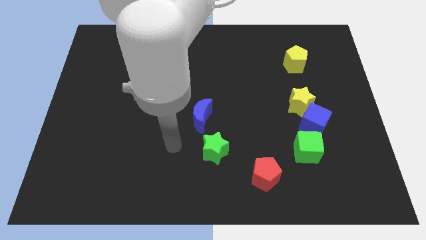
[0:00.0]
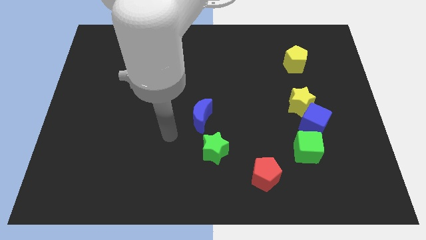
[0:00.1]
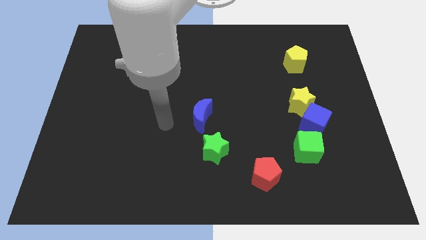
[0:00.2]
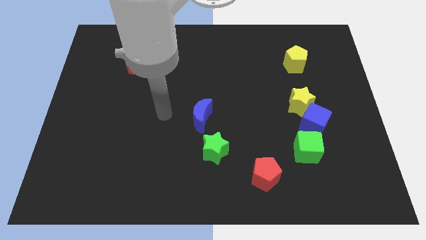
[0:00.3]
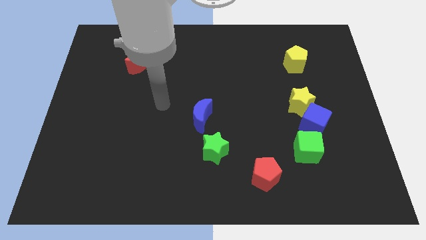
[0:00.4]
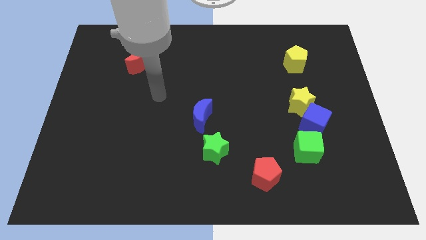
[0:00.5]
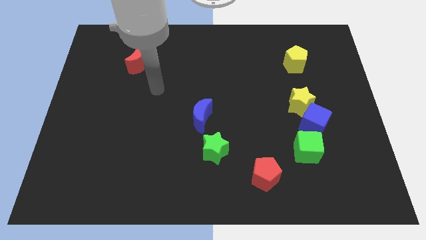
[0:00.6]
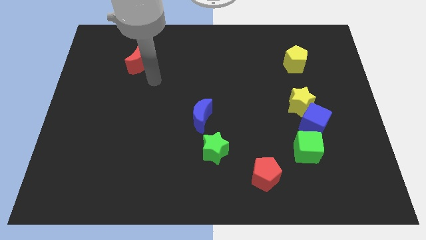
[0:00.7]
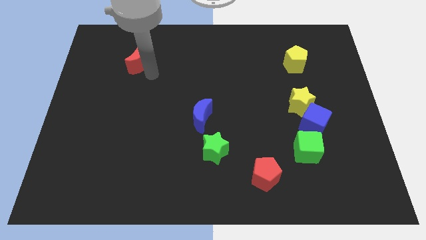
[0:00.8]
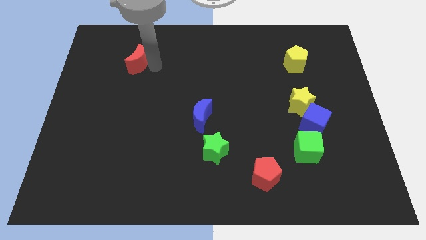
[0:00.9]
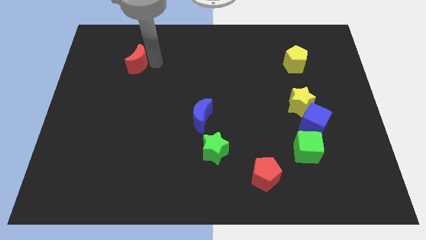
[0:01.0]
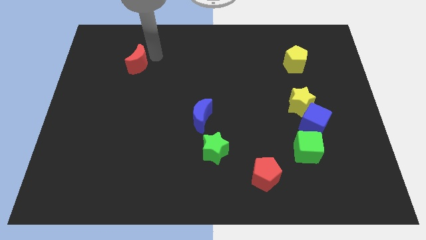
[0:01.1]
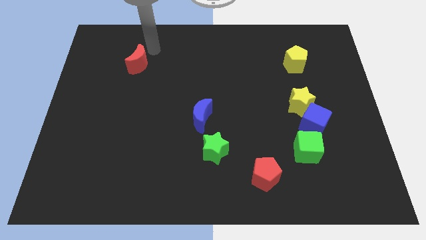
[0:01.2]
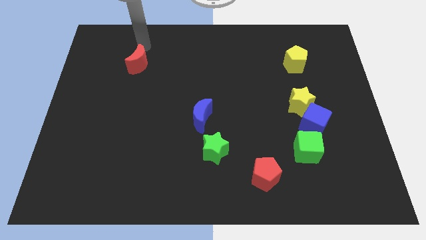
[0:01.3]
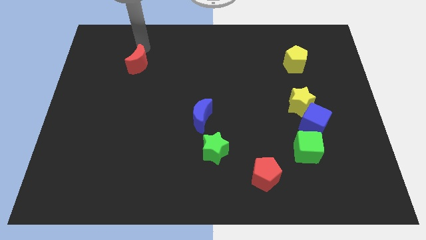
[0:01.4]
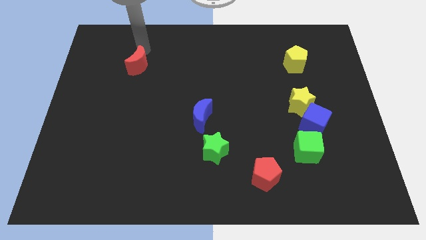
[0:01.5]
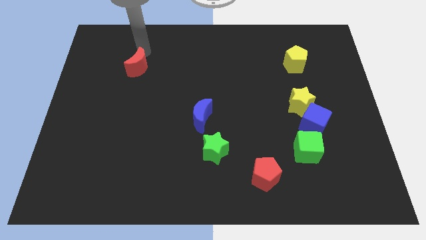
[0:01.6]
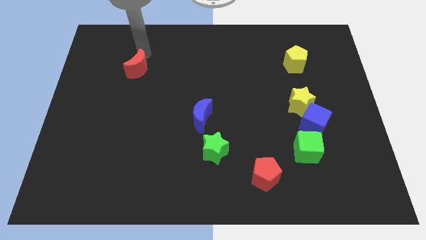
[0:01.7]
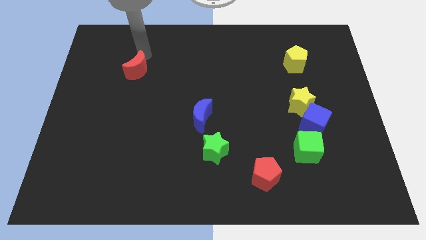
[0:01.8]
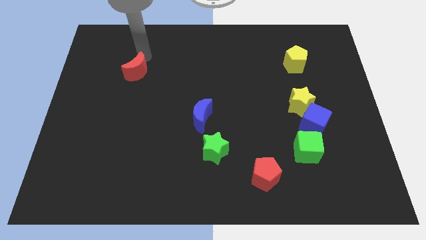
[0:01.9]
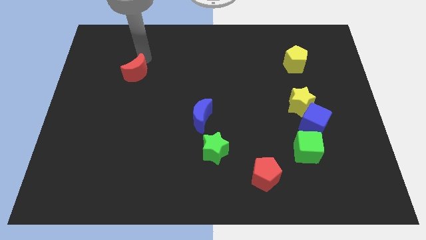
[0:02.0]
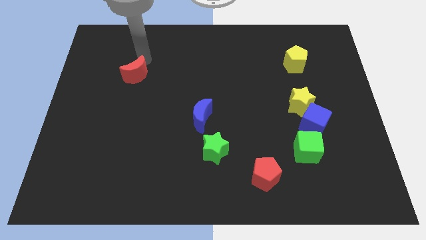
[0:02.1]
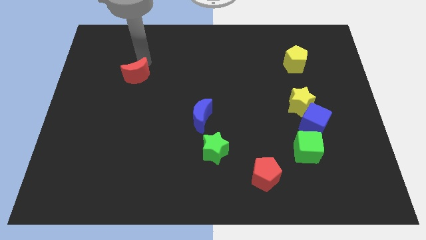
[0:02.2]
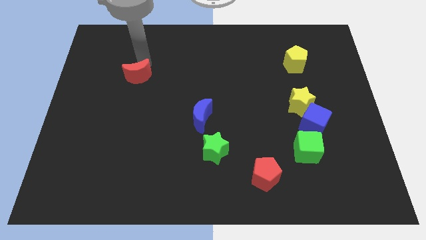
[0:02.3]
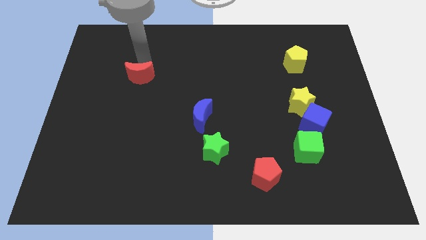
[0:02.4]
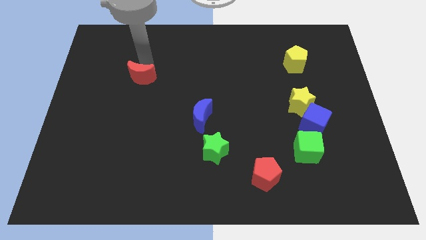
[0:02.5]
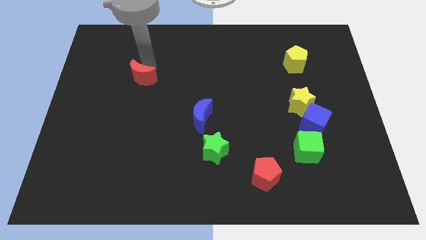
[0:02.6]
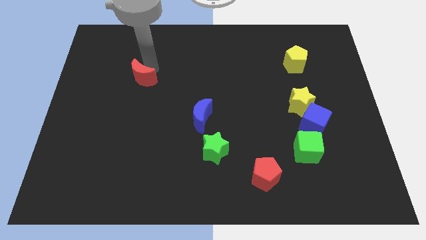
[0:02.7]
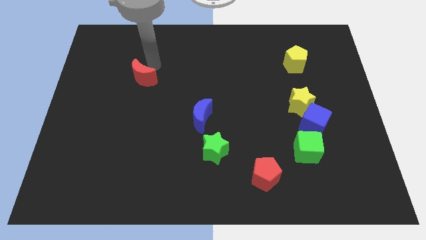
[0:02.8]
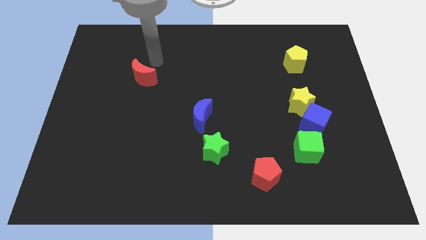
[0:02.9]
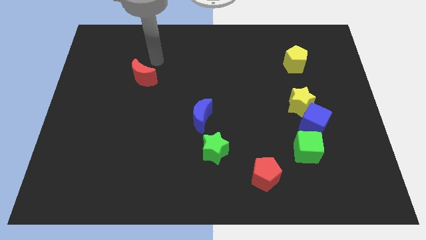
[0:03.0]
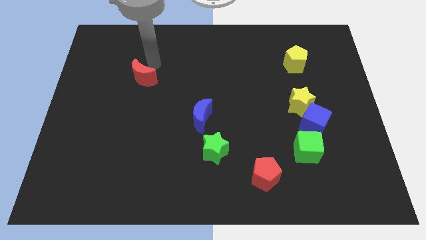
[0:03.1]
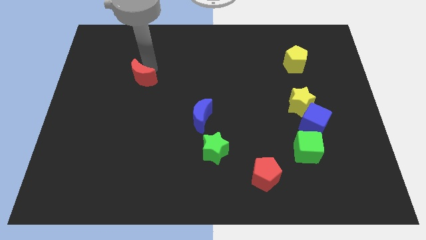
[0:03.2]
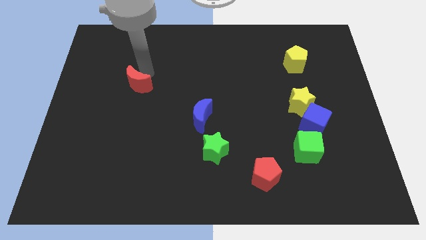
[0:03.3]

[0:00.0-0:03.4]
push the red moon a little bit downwards

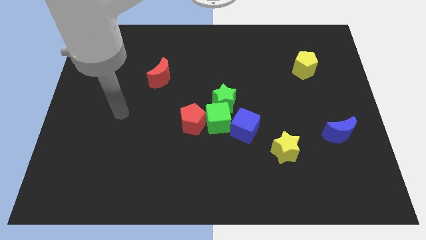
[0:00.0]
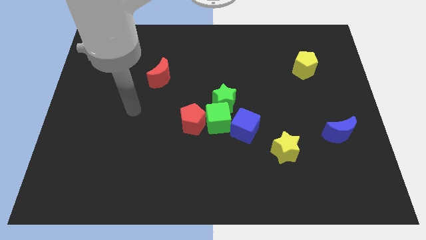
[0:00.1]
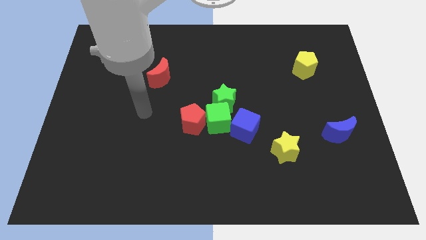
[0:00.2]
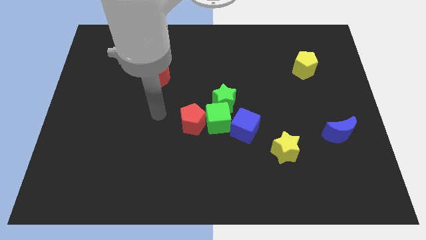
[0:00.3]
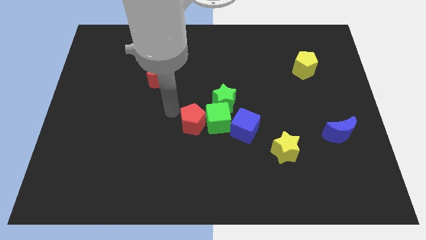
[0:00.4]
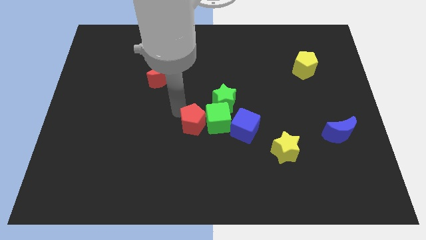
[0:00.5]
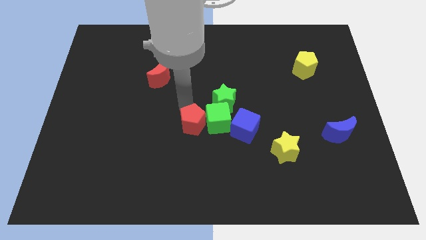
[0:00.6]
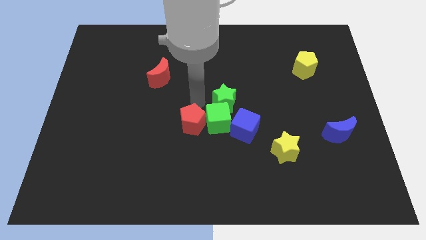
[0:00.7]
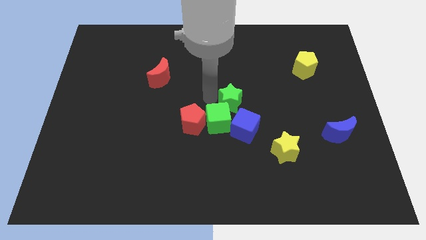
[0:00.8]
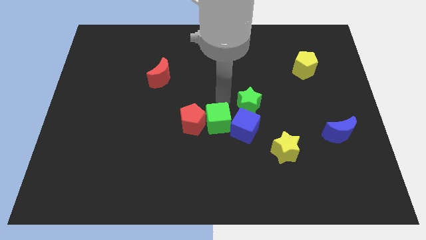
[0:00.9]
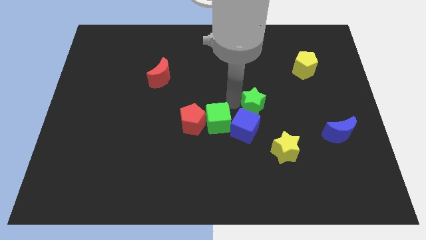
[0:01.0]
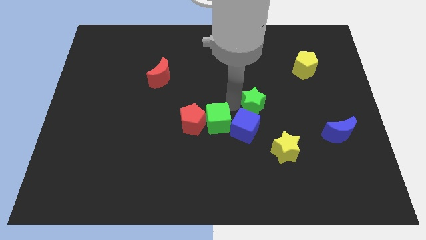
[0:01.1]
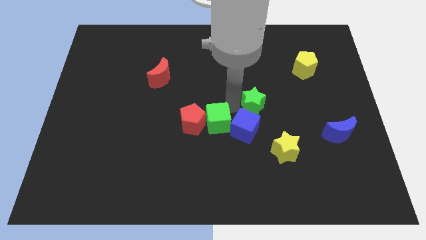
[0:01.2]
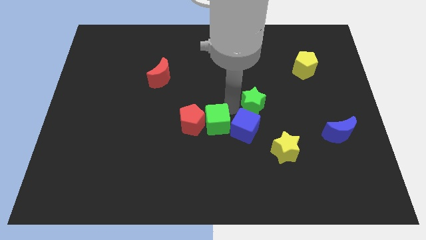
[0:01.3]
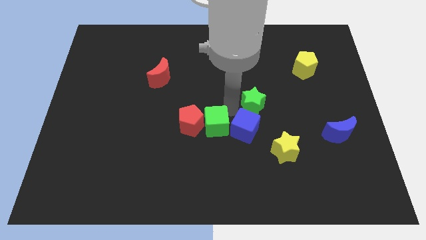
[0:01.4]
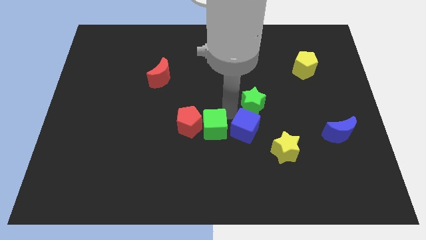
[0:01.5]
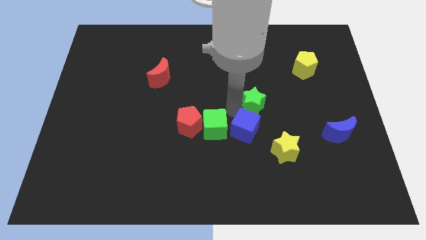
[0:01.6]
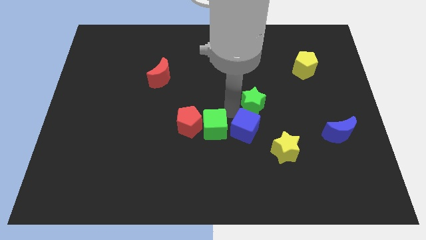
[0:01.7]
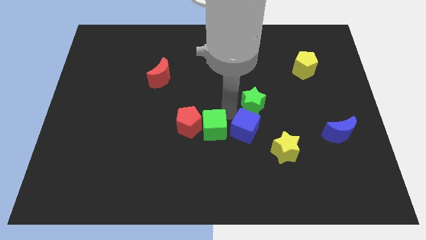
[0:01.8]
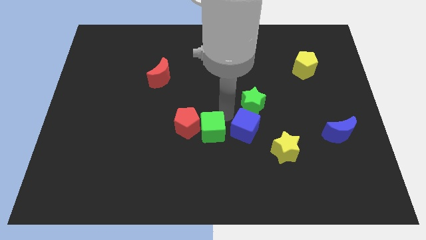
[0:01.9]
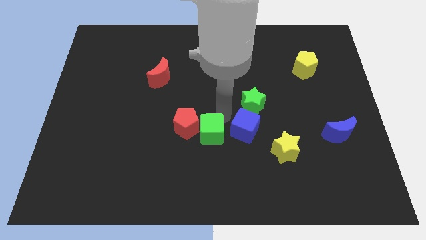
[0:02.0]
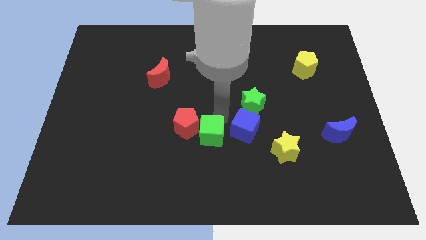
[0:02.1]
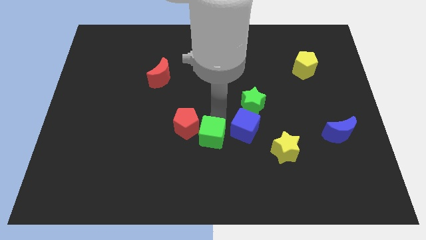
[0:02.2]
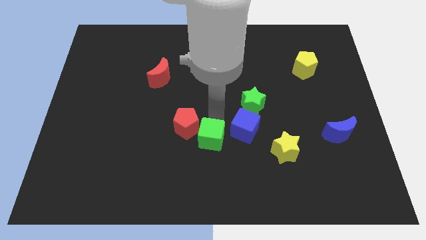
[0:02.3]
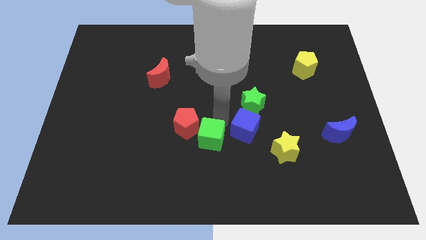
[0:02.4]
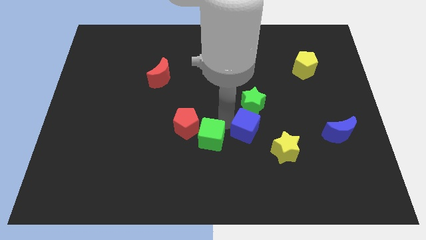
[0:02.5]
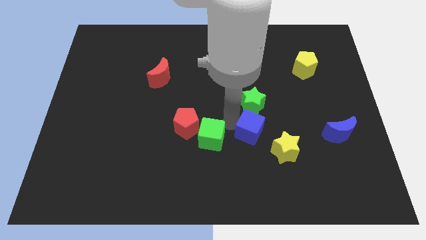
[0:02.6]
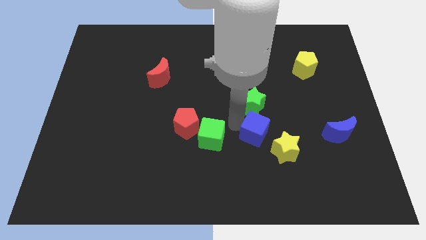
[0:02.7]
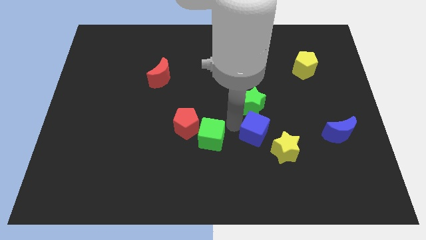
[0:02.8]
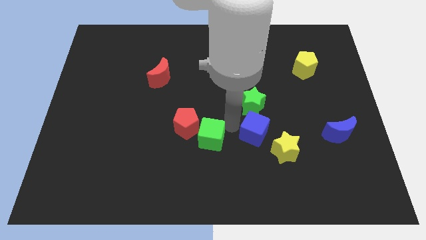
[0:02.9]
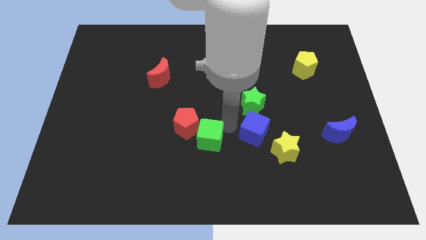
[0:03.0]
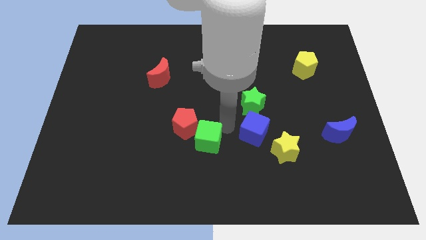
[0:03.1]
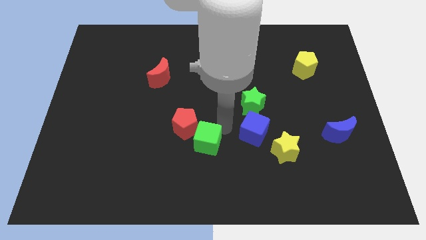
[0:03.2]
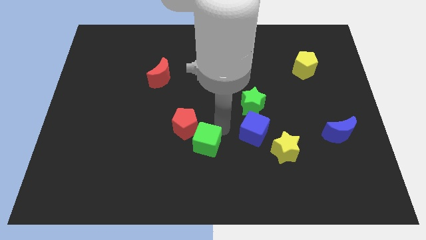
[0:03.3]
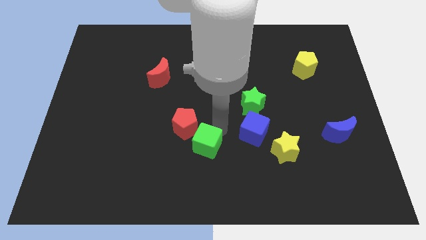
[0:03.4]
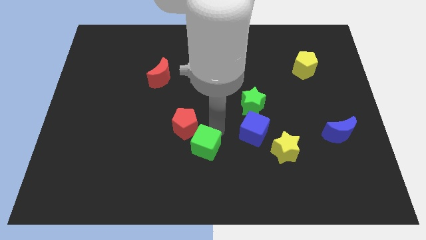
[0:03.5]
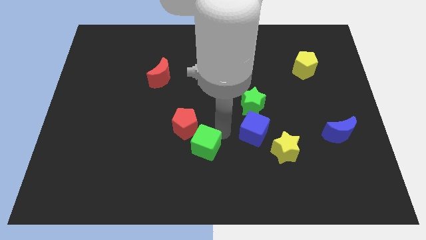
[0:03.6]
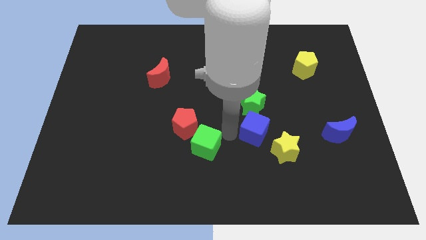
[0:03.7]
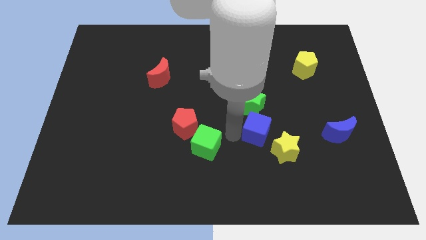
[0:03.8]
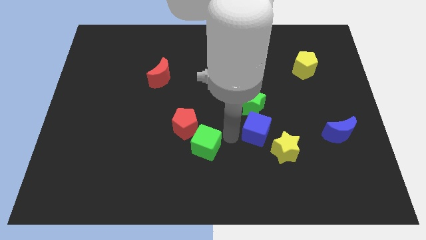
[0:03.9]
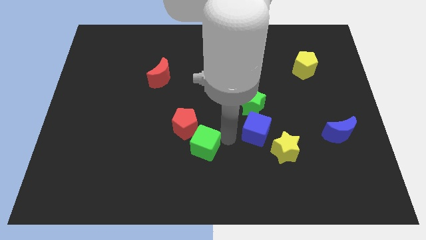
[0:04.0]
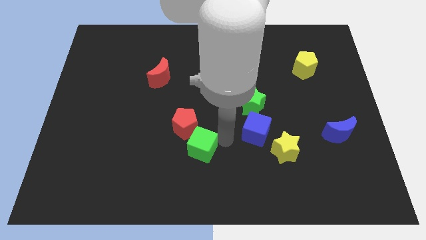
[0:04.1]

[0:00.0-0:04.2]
slide the green cube diagonally down and to the left a bit

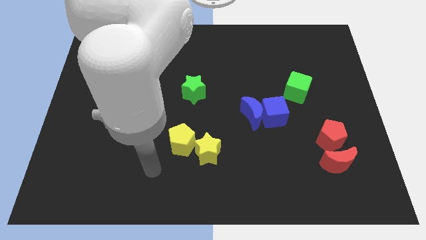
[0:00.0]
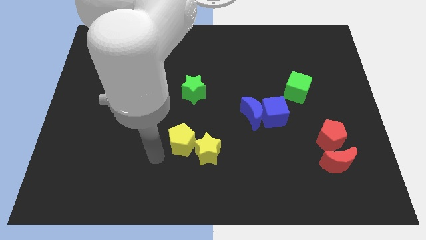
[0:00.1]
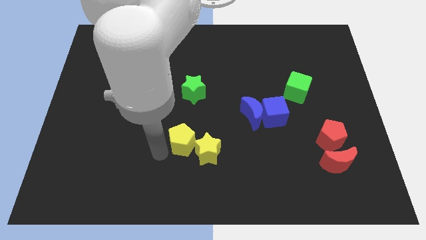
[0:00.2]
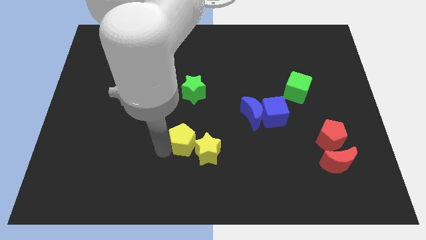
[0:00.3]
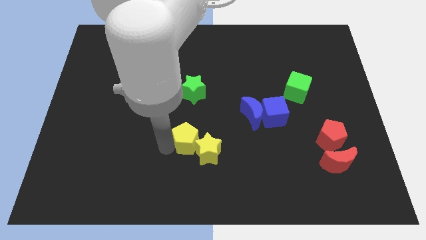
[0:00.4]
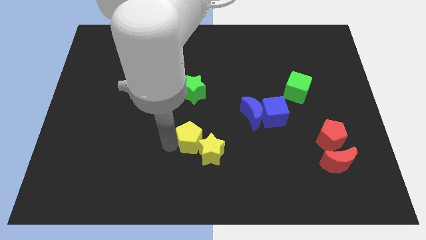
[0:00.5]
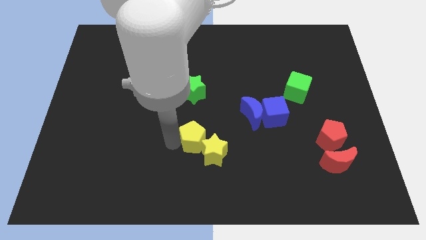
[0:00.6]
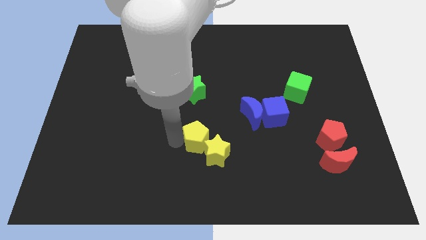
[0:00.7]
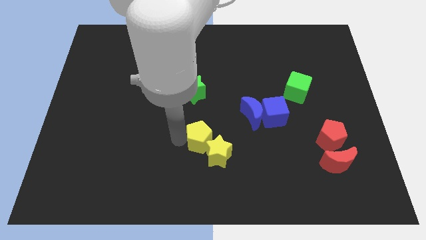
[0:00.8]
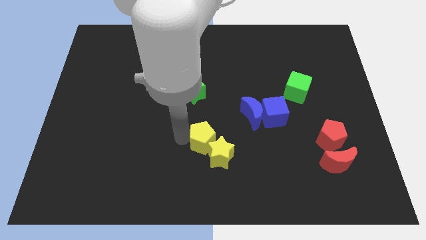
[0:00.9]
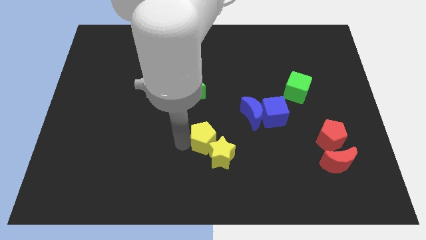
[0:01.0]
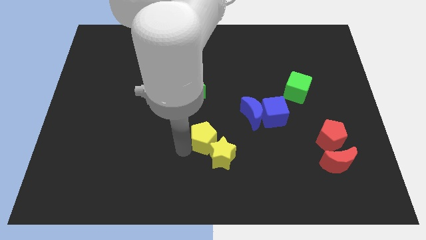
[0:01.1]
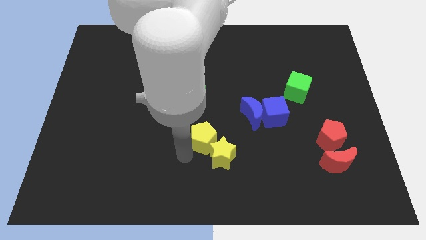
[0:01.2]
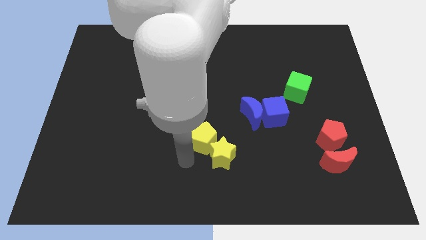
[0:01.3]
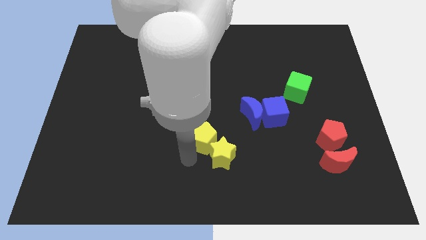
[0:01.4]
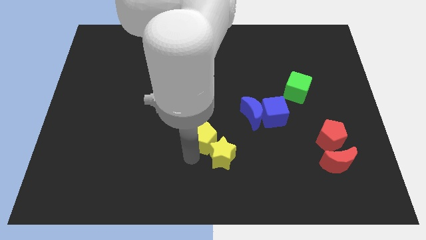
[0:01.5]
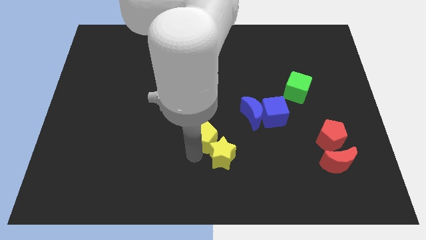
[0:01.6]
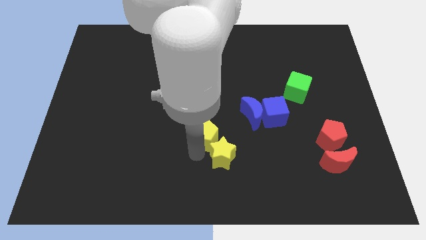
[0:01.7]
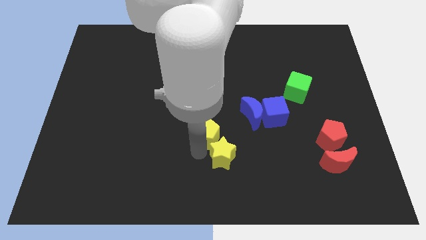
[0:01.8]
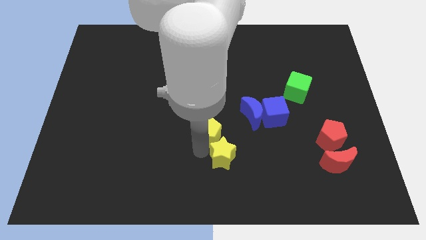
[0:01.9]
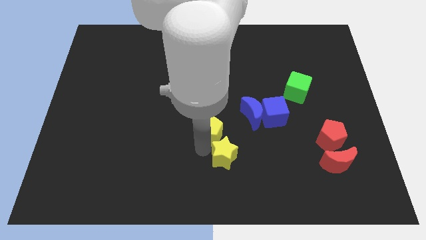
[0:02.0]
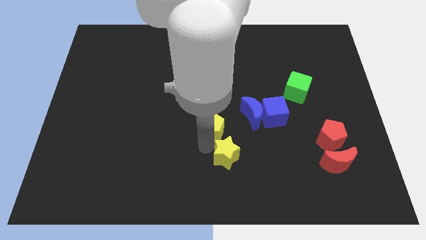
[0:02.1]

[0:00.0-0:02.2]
push the yellow pentagon up and right a little
